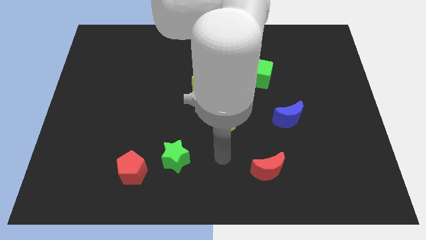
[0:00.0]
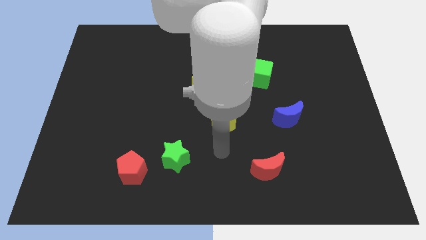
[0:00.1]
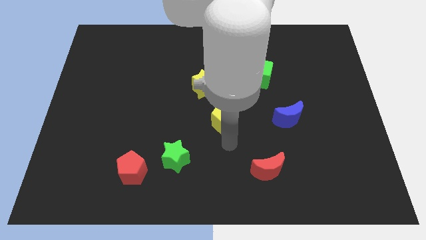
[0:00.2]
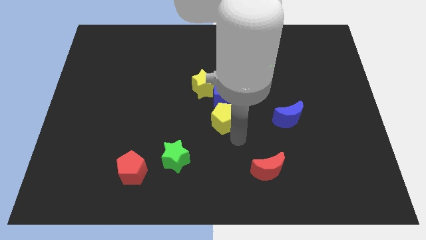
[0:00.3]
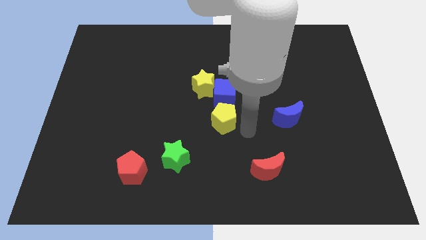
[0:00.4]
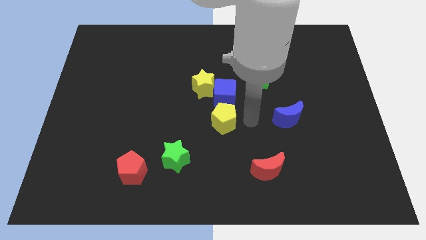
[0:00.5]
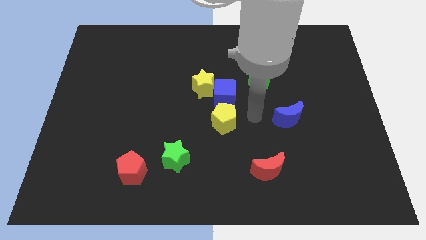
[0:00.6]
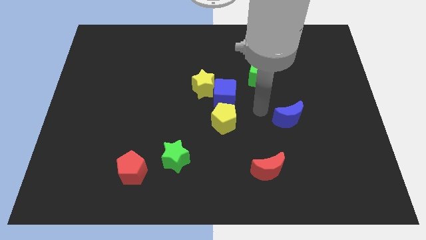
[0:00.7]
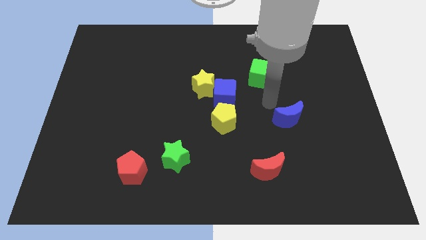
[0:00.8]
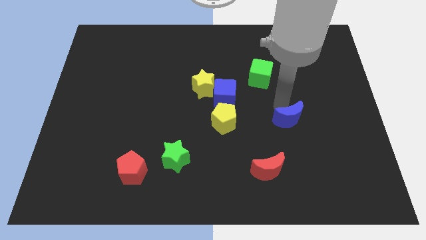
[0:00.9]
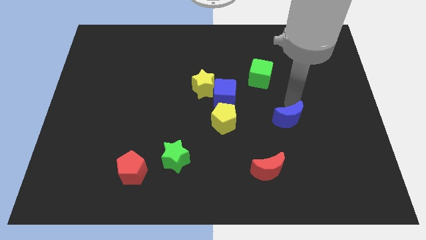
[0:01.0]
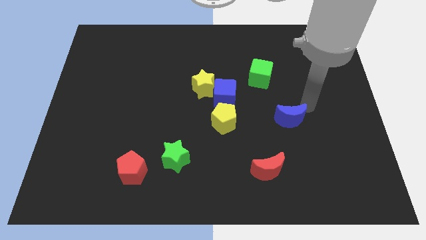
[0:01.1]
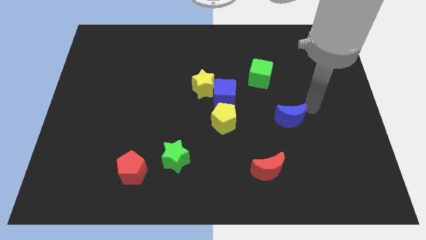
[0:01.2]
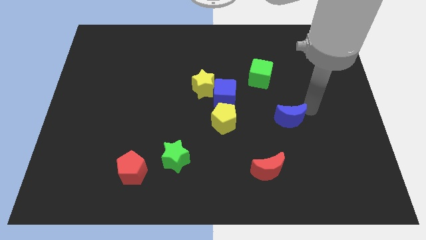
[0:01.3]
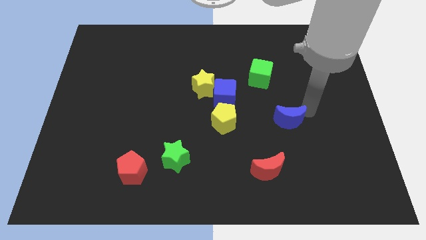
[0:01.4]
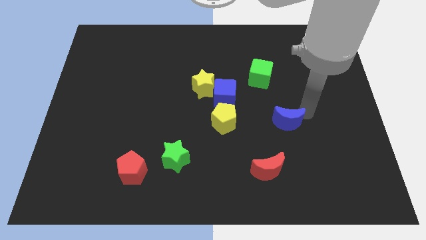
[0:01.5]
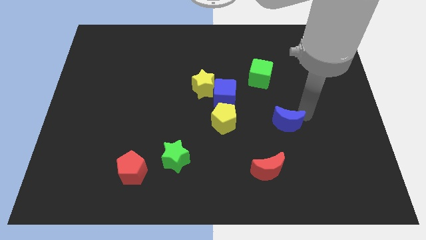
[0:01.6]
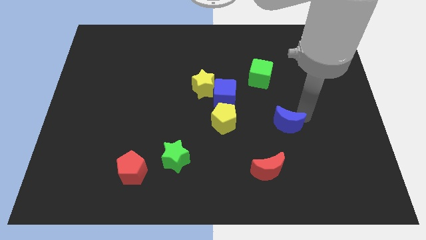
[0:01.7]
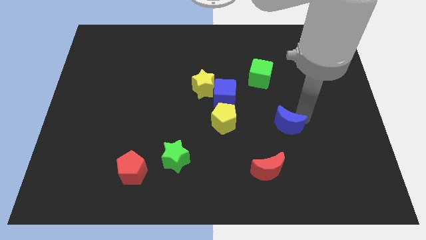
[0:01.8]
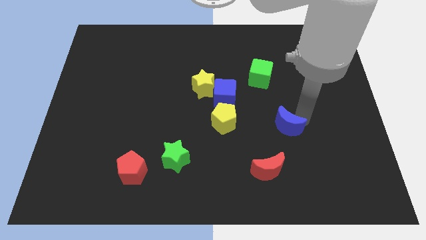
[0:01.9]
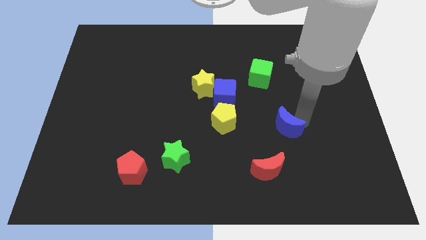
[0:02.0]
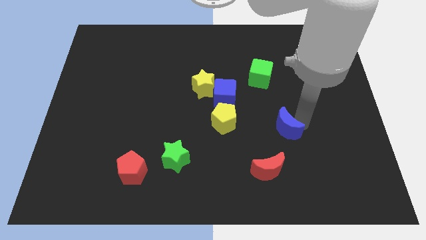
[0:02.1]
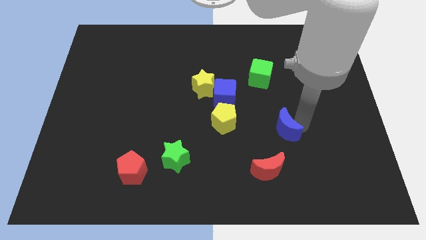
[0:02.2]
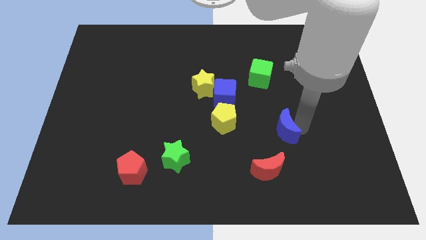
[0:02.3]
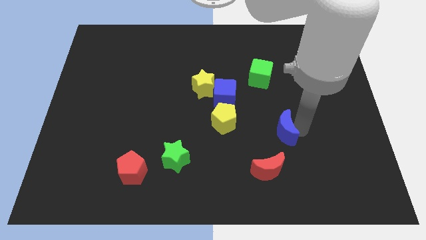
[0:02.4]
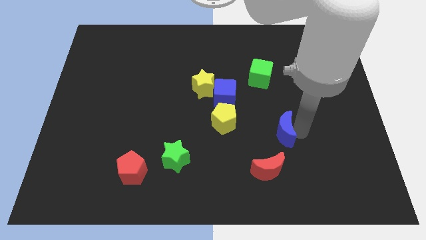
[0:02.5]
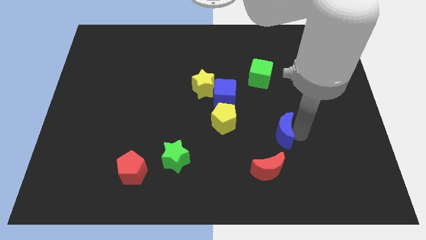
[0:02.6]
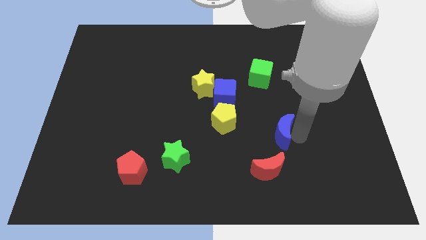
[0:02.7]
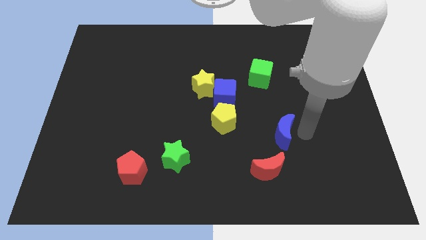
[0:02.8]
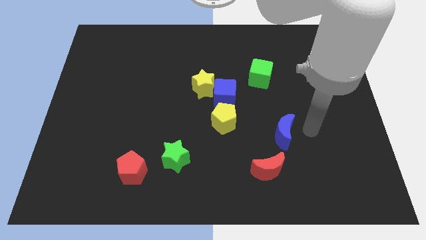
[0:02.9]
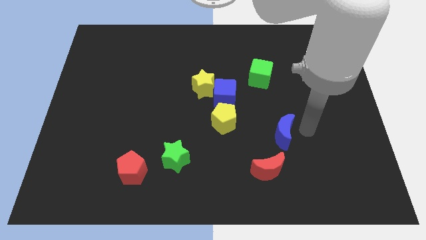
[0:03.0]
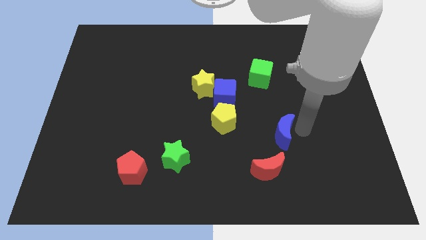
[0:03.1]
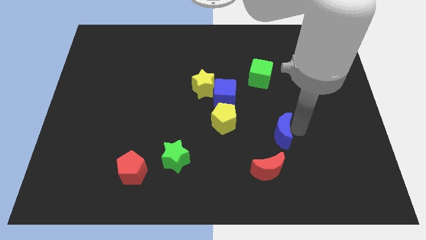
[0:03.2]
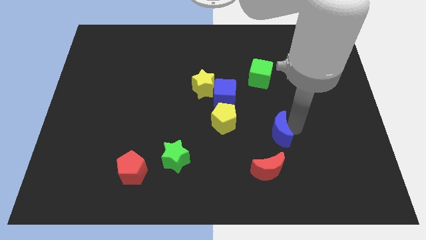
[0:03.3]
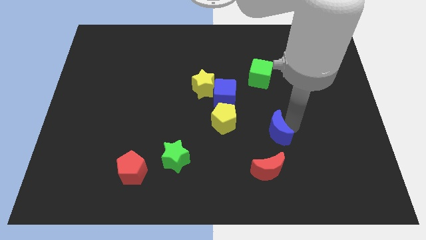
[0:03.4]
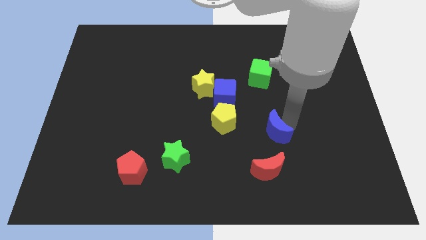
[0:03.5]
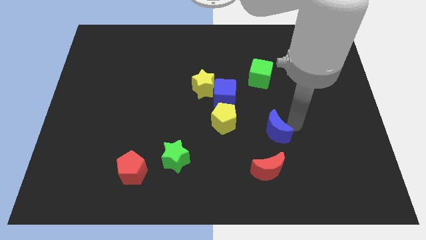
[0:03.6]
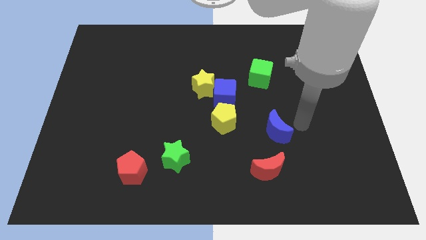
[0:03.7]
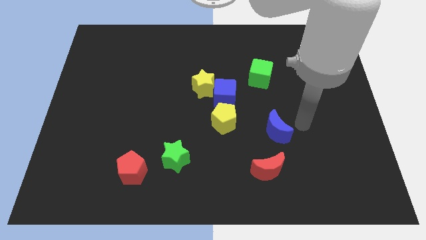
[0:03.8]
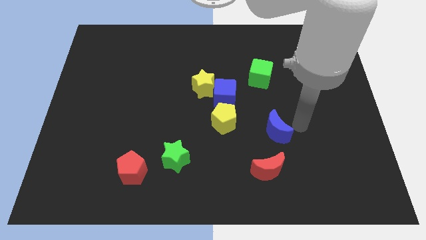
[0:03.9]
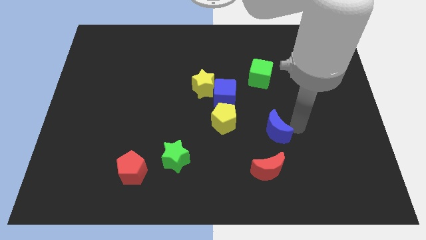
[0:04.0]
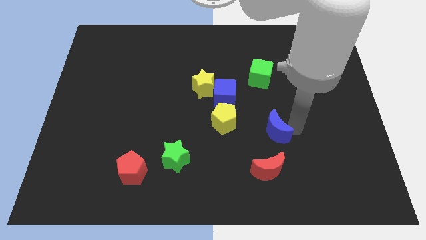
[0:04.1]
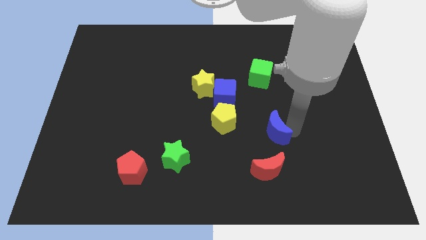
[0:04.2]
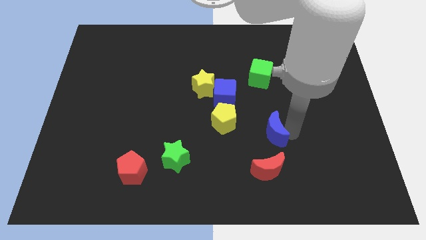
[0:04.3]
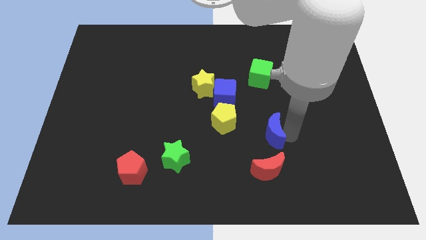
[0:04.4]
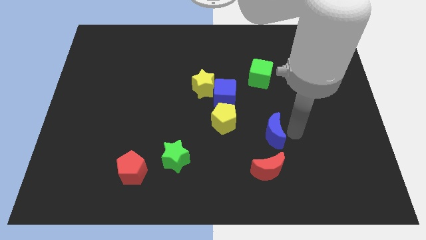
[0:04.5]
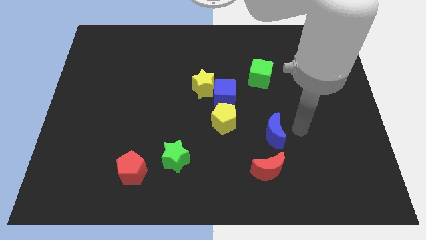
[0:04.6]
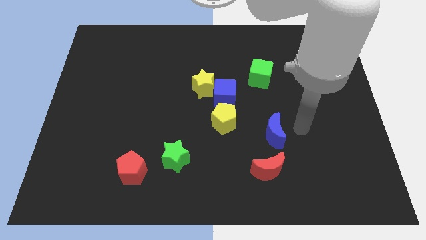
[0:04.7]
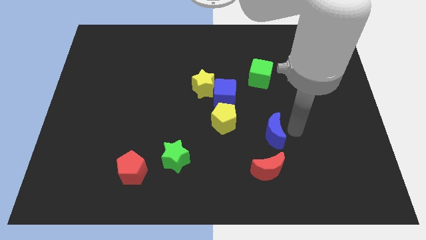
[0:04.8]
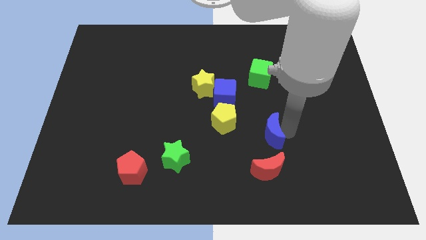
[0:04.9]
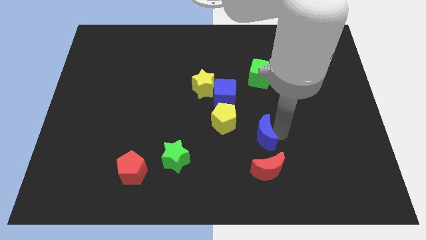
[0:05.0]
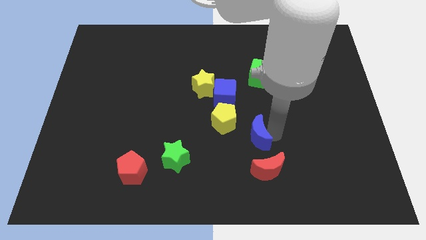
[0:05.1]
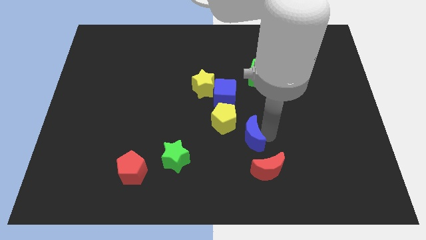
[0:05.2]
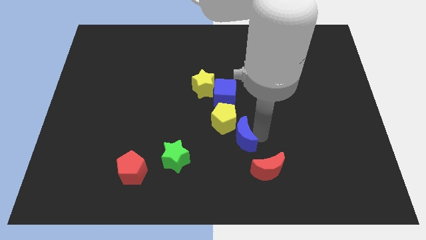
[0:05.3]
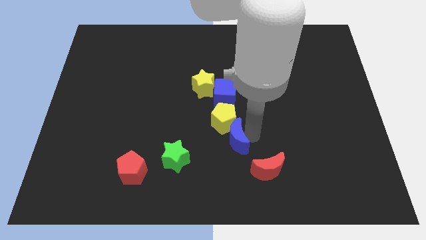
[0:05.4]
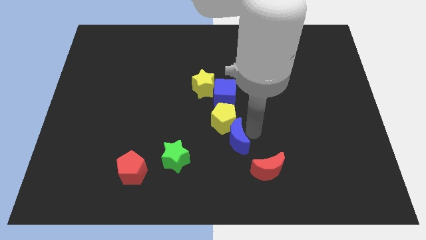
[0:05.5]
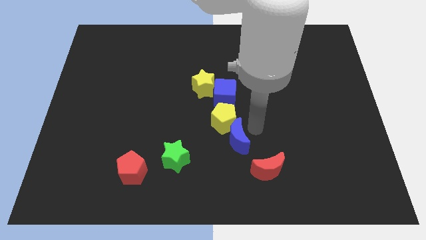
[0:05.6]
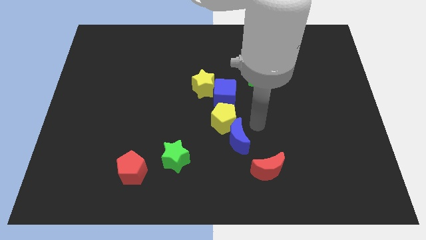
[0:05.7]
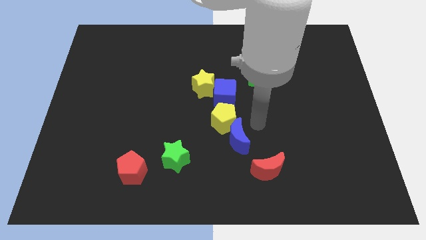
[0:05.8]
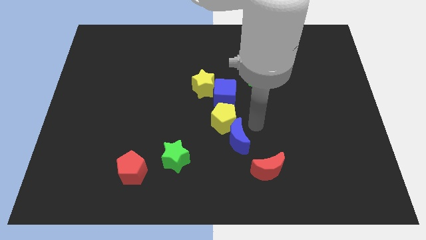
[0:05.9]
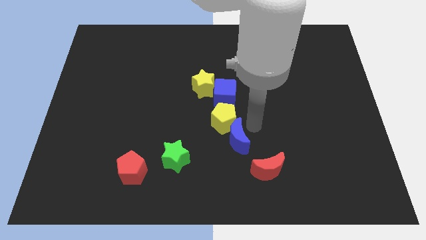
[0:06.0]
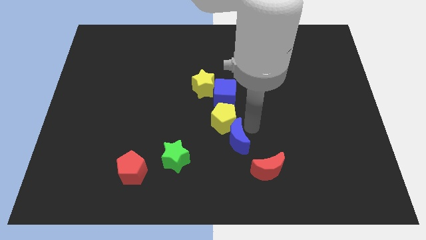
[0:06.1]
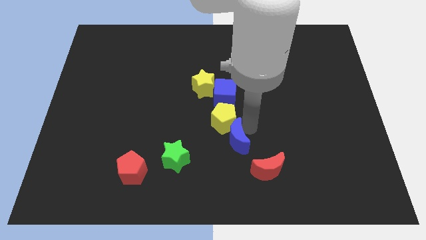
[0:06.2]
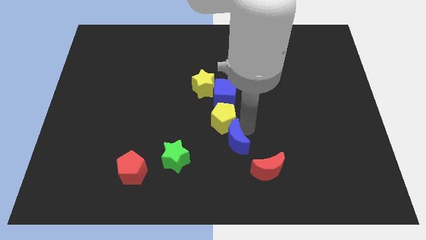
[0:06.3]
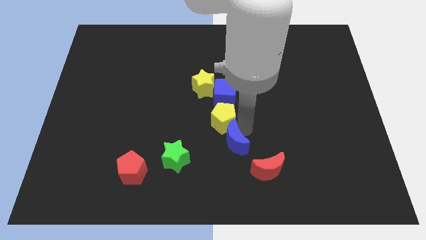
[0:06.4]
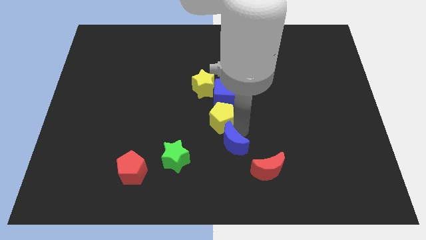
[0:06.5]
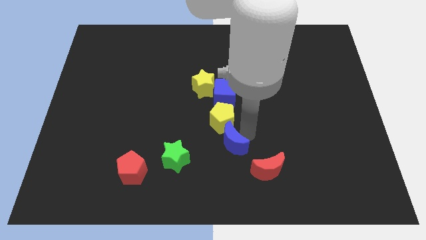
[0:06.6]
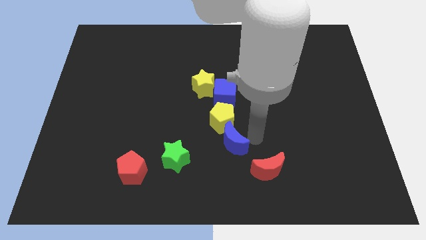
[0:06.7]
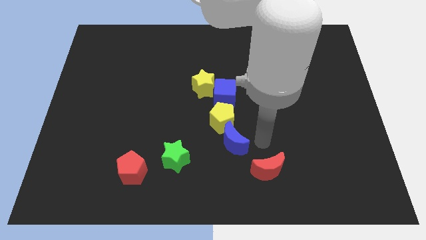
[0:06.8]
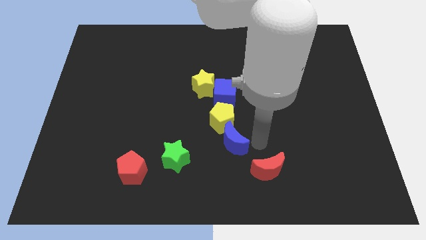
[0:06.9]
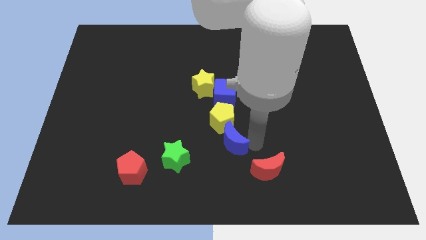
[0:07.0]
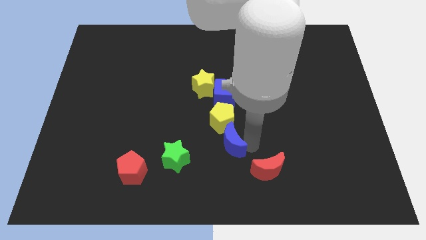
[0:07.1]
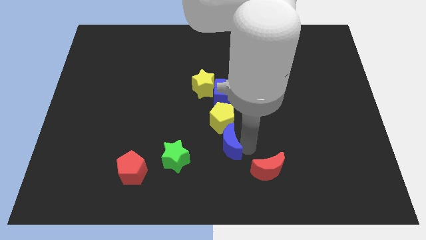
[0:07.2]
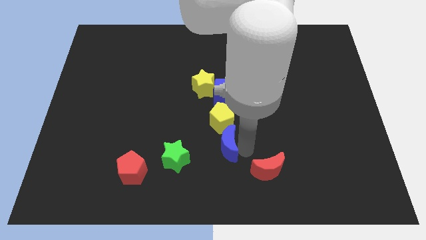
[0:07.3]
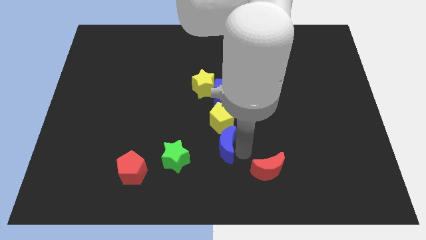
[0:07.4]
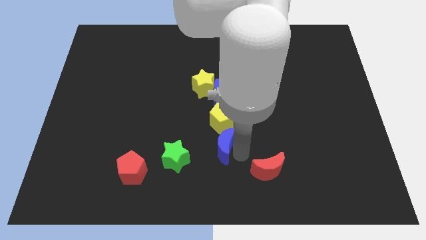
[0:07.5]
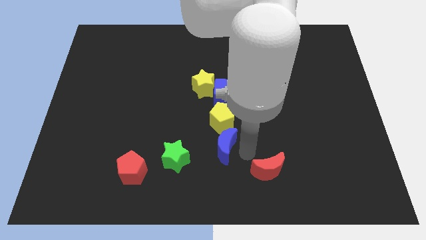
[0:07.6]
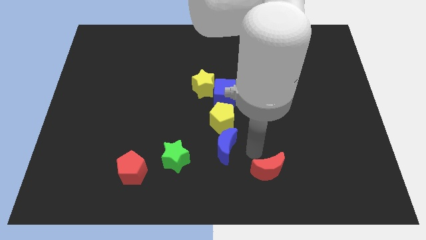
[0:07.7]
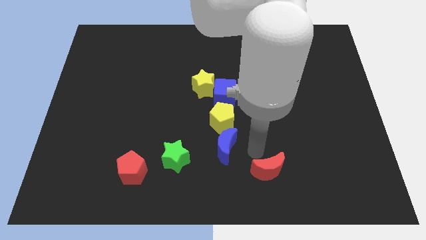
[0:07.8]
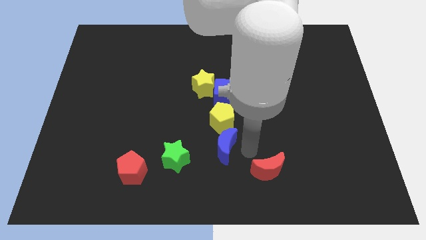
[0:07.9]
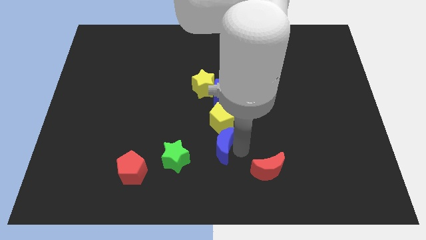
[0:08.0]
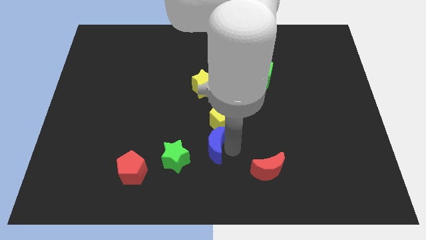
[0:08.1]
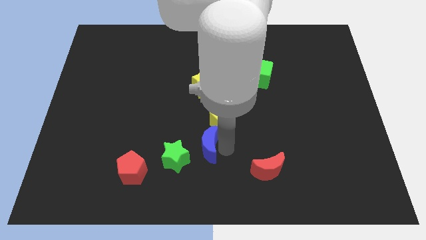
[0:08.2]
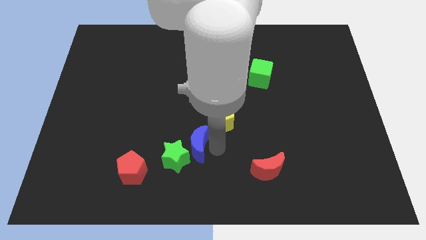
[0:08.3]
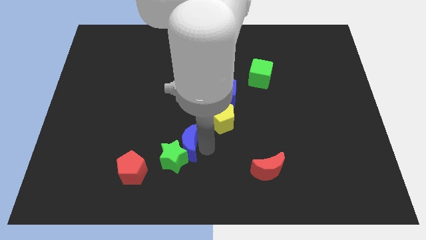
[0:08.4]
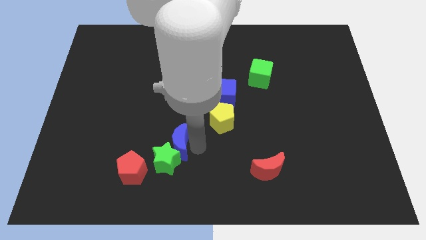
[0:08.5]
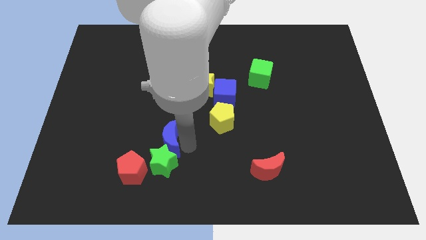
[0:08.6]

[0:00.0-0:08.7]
slide the blue moon diagonally up and to the left of the green star
